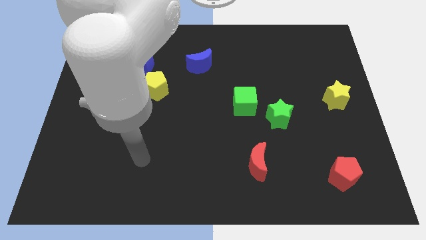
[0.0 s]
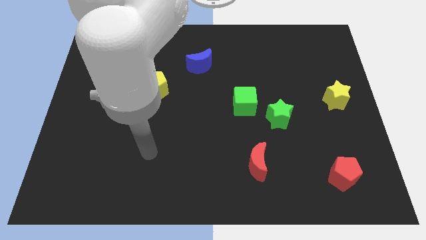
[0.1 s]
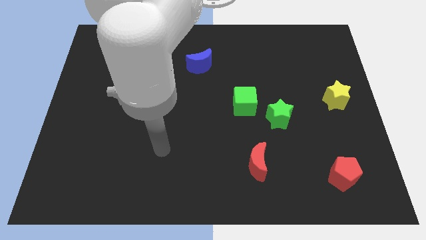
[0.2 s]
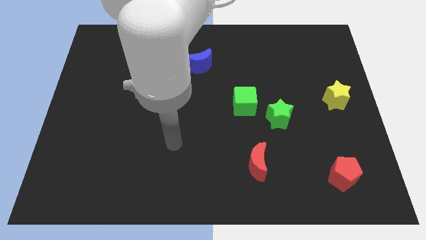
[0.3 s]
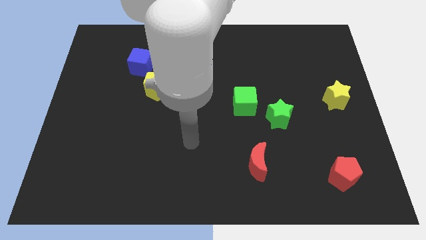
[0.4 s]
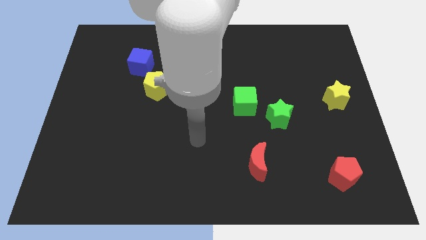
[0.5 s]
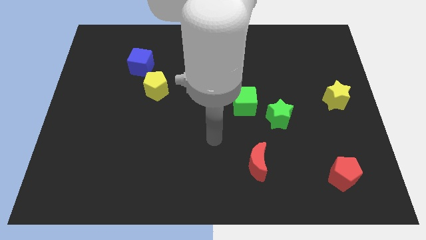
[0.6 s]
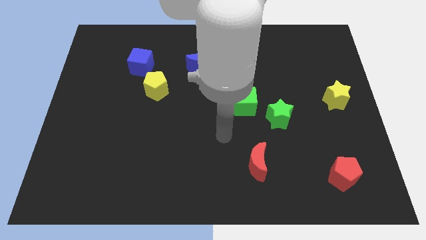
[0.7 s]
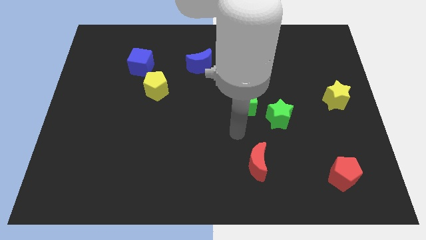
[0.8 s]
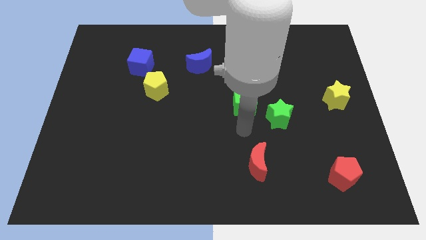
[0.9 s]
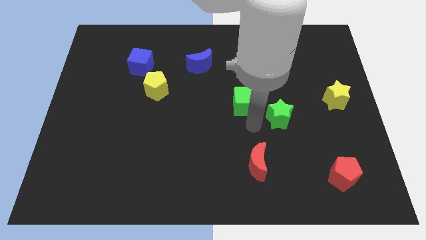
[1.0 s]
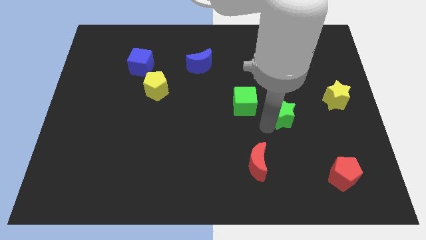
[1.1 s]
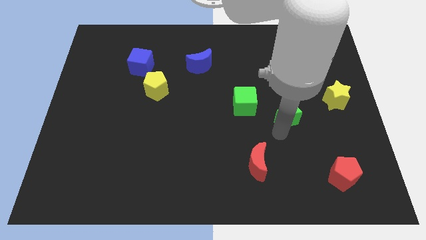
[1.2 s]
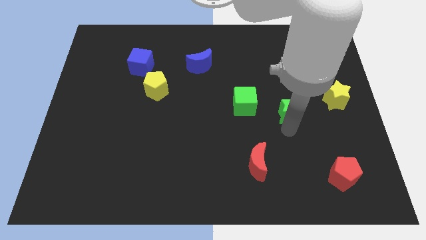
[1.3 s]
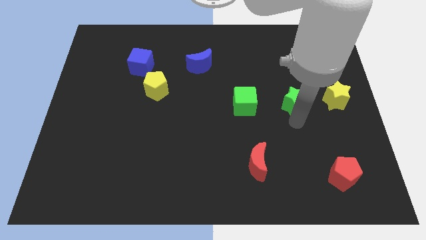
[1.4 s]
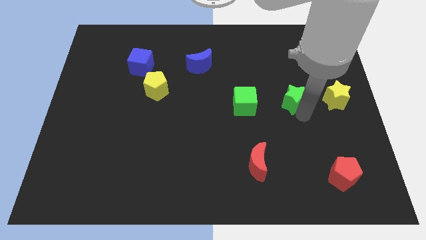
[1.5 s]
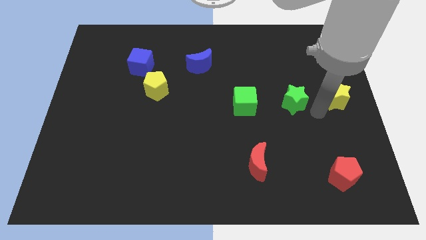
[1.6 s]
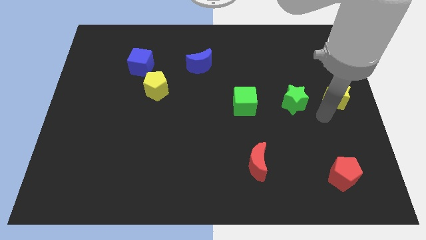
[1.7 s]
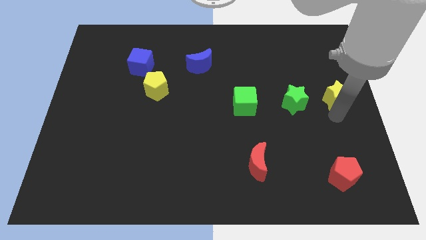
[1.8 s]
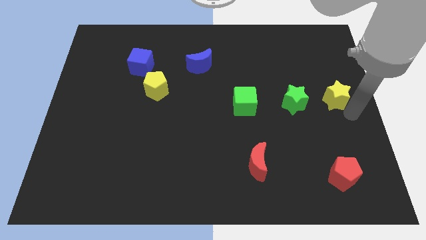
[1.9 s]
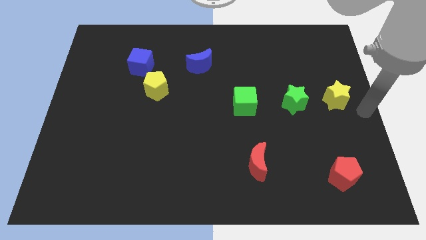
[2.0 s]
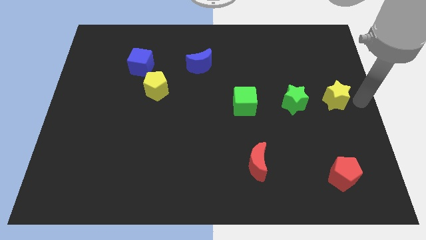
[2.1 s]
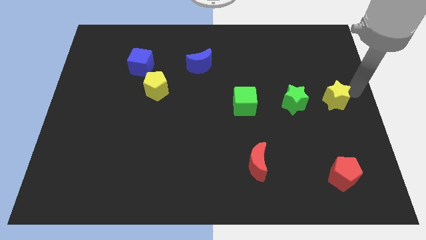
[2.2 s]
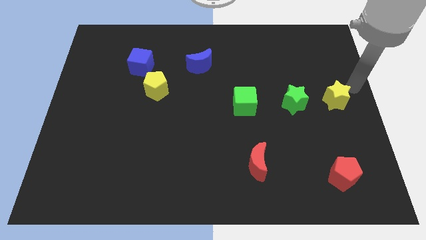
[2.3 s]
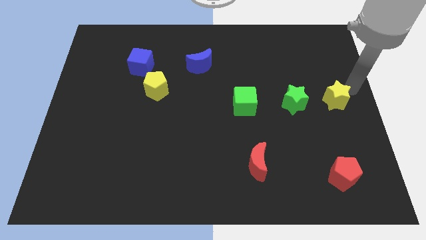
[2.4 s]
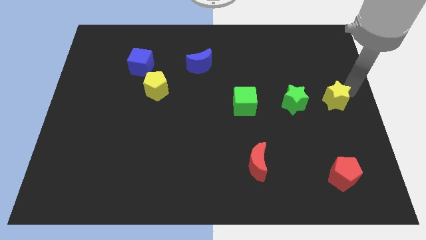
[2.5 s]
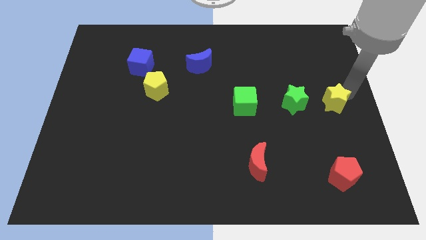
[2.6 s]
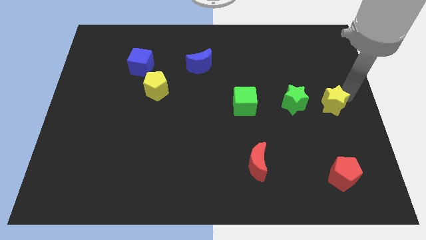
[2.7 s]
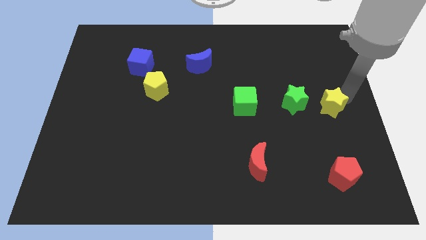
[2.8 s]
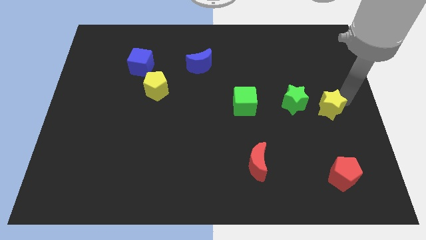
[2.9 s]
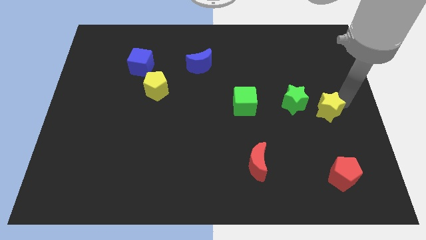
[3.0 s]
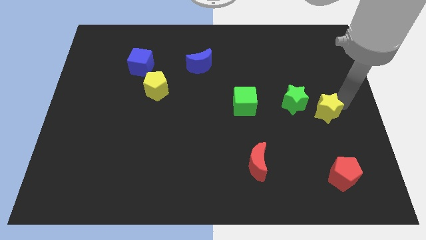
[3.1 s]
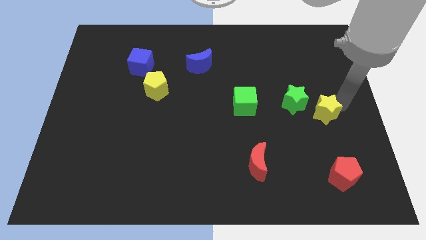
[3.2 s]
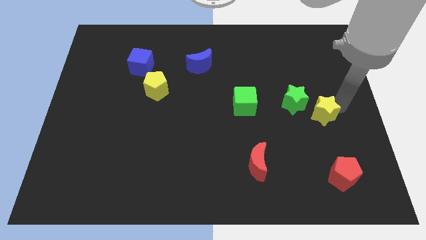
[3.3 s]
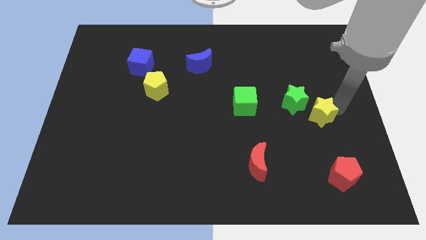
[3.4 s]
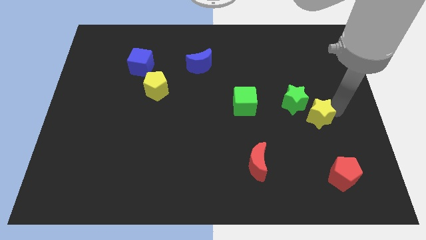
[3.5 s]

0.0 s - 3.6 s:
push the yellow star somewhat diagonally downwards and to the left

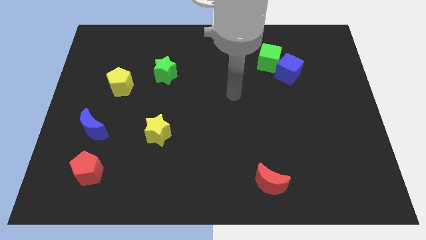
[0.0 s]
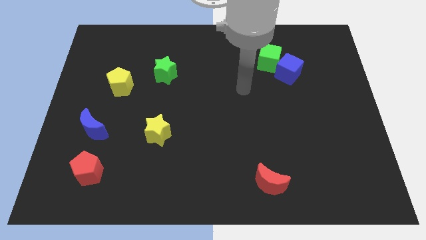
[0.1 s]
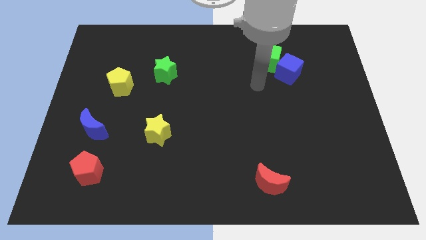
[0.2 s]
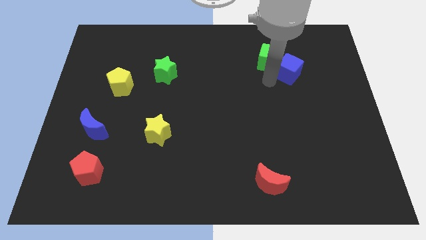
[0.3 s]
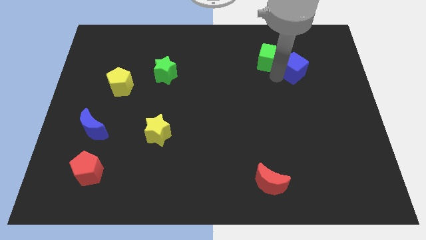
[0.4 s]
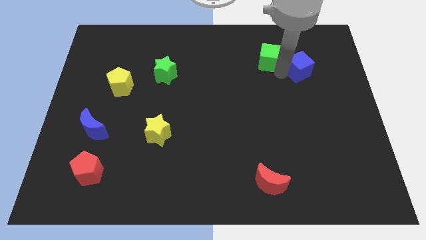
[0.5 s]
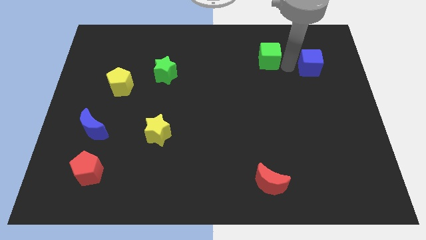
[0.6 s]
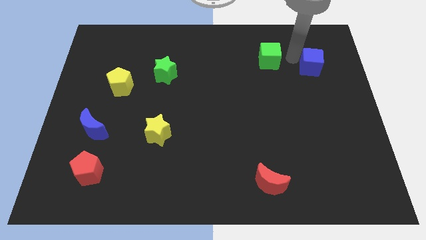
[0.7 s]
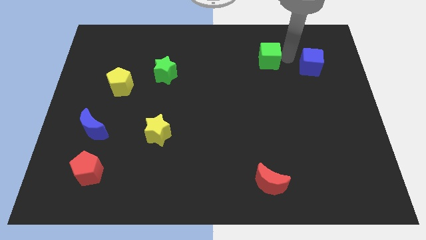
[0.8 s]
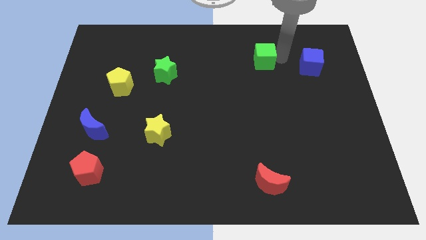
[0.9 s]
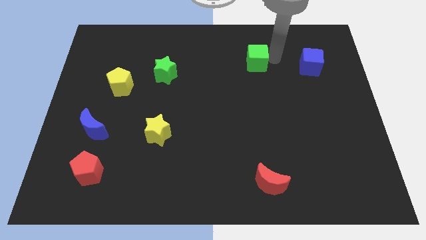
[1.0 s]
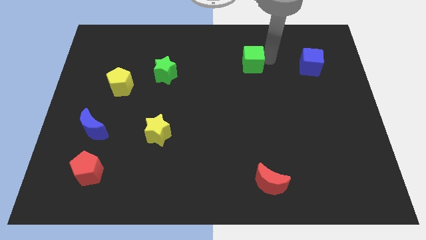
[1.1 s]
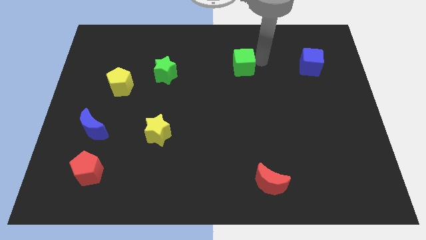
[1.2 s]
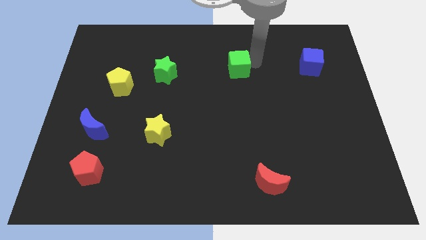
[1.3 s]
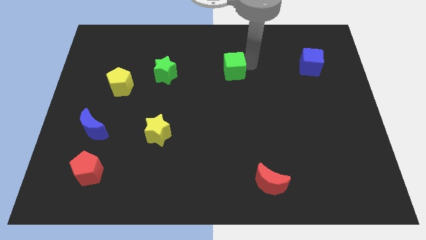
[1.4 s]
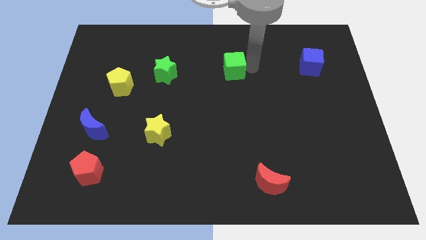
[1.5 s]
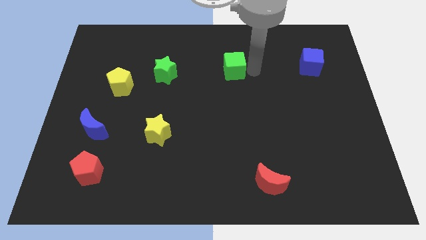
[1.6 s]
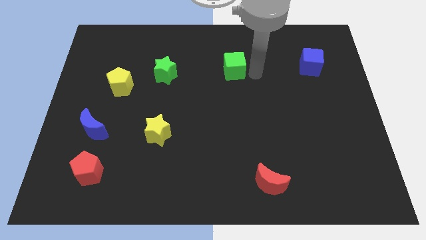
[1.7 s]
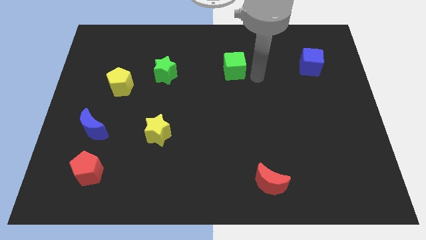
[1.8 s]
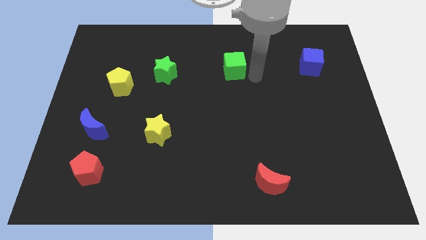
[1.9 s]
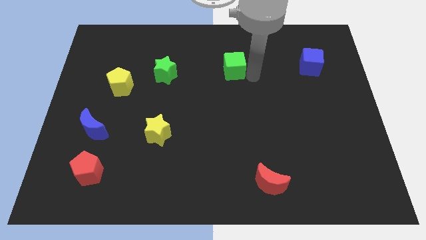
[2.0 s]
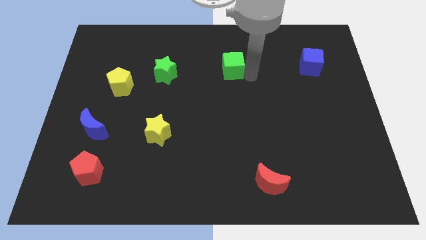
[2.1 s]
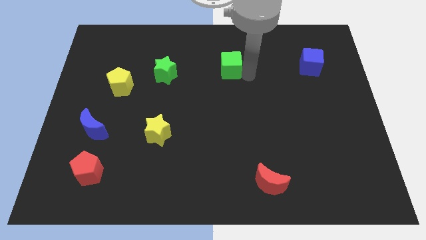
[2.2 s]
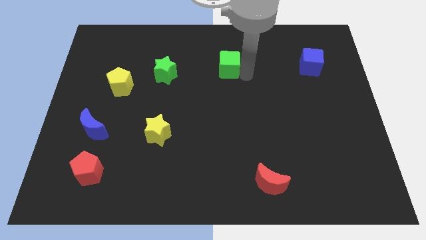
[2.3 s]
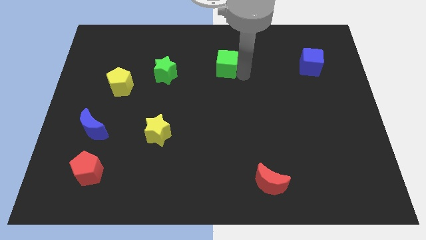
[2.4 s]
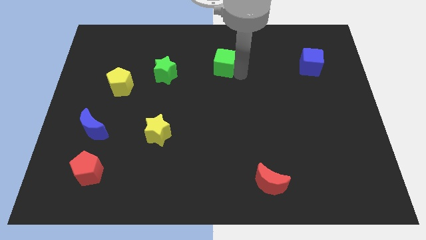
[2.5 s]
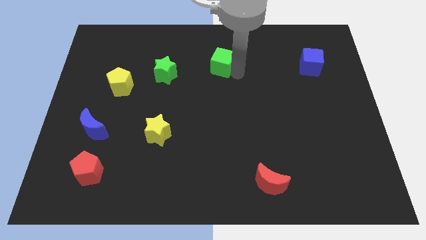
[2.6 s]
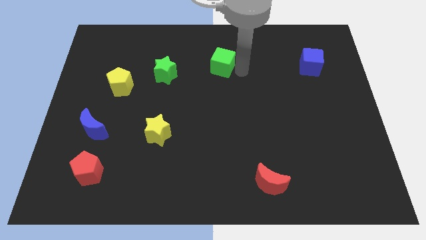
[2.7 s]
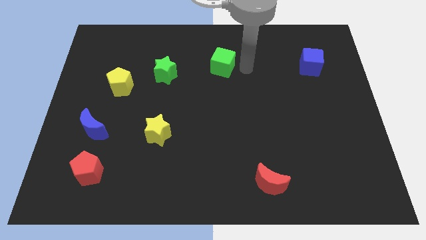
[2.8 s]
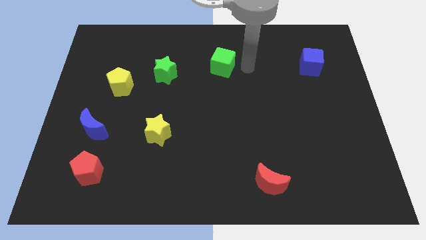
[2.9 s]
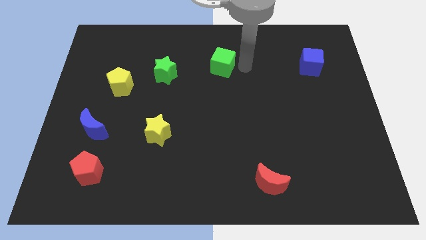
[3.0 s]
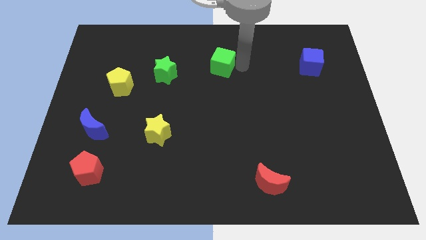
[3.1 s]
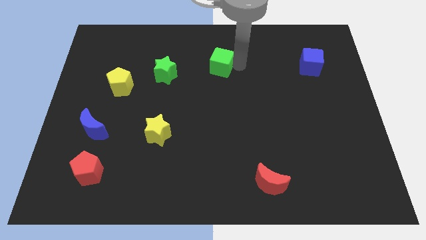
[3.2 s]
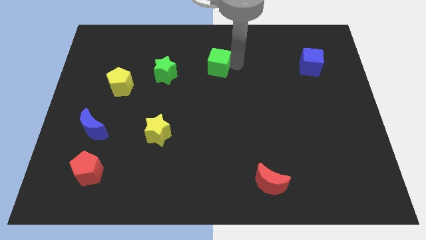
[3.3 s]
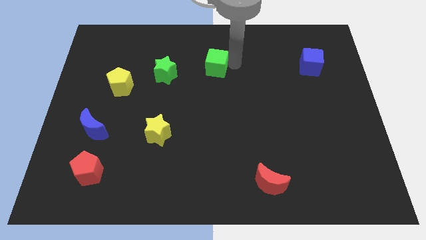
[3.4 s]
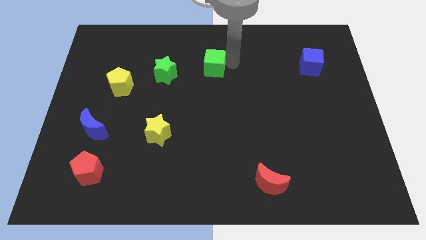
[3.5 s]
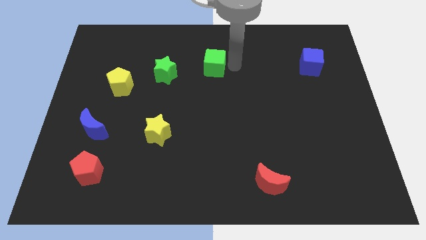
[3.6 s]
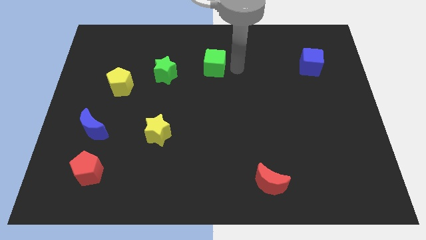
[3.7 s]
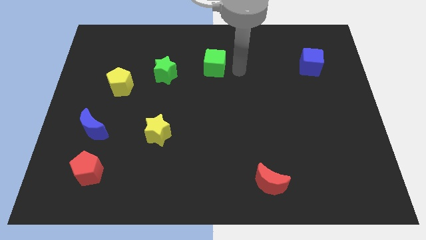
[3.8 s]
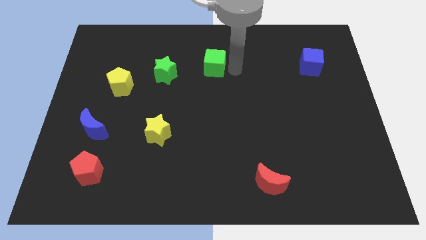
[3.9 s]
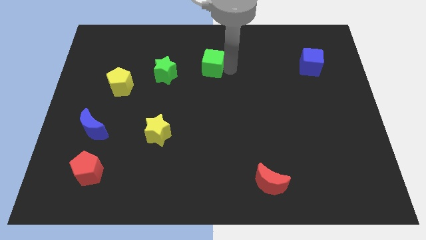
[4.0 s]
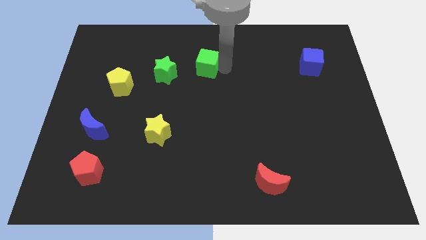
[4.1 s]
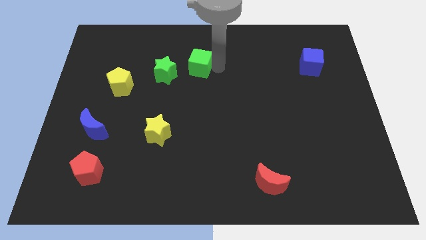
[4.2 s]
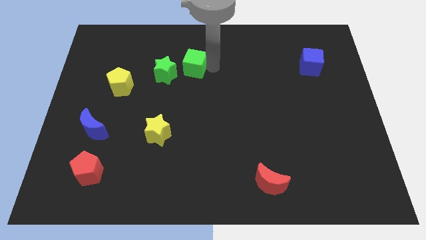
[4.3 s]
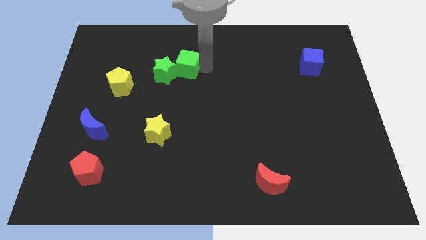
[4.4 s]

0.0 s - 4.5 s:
move the green cube left
